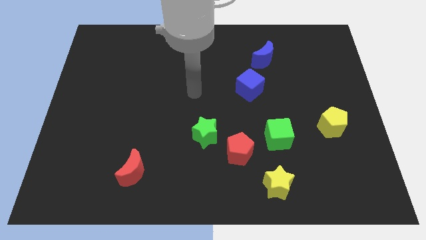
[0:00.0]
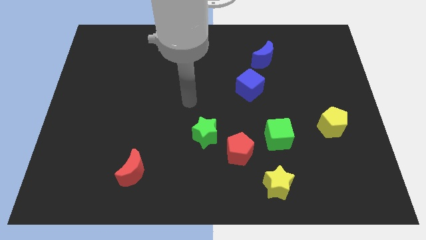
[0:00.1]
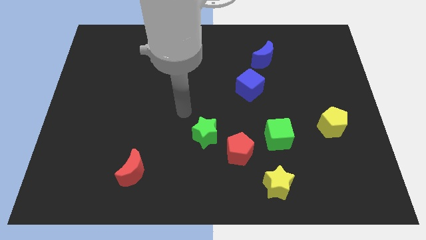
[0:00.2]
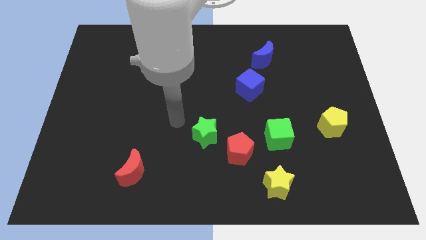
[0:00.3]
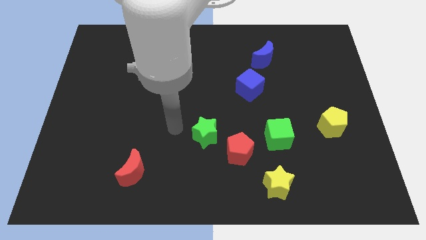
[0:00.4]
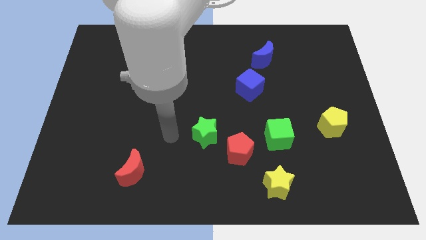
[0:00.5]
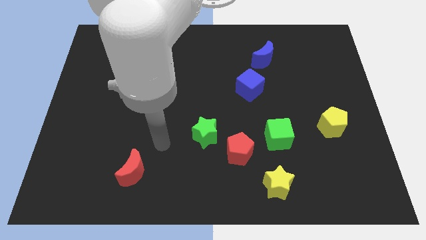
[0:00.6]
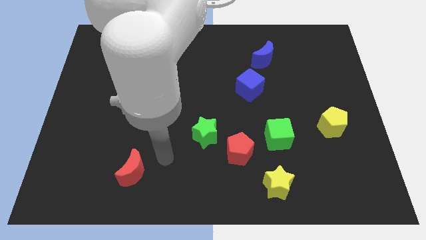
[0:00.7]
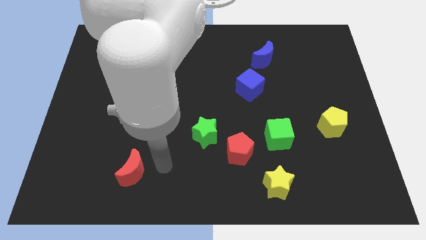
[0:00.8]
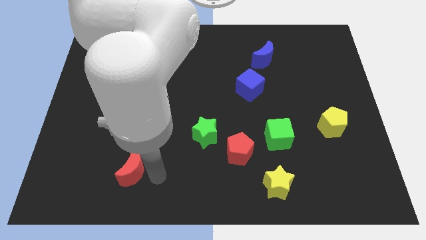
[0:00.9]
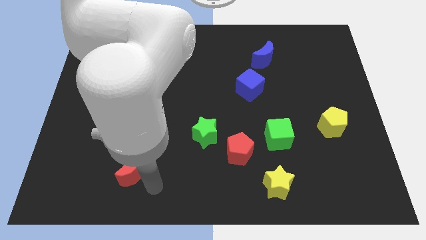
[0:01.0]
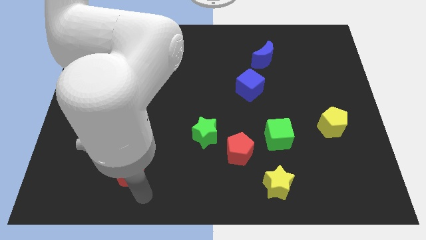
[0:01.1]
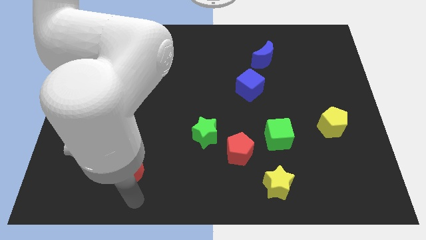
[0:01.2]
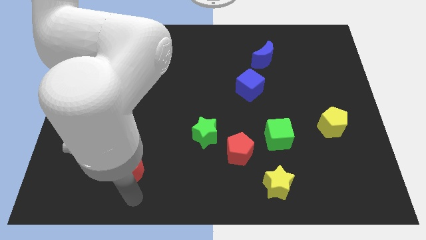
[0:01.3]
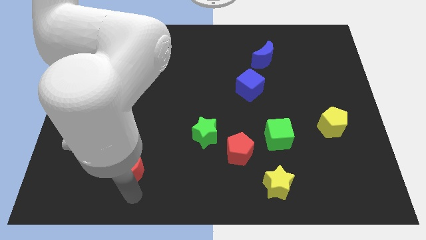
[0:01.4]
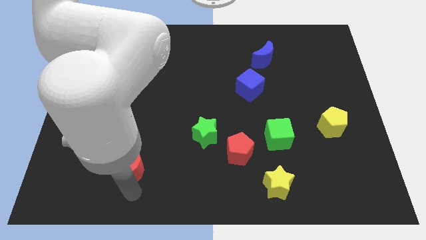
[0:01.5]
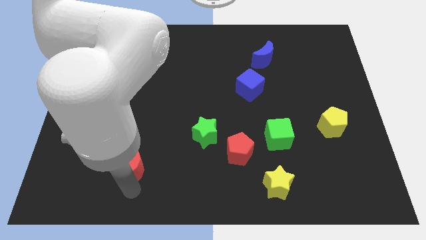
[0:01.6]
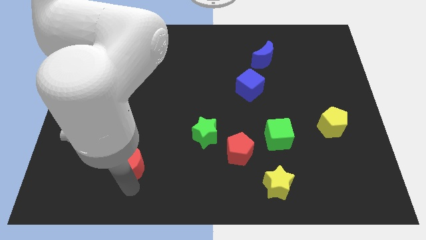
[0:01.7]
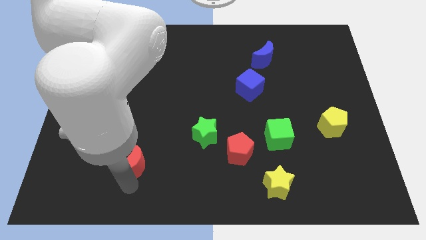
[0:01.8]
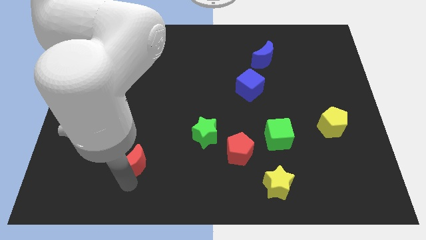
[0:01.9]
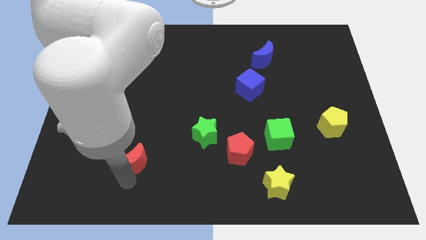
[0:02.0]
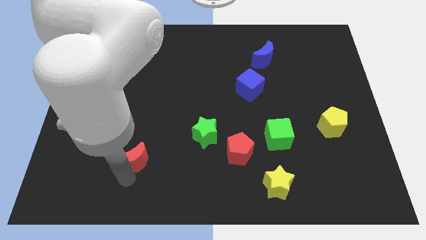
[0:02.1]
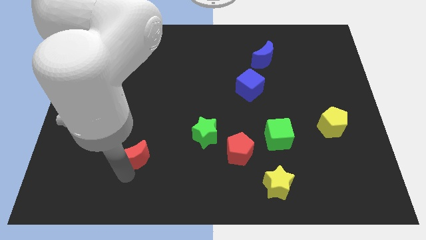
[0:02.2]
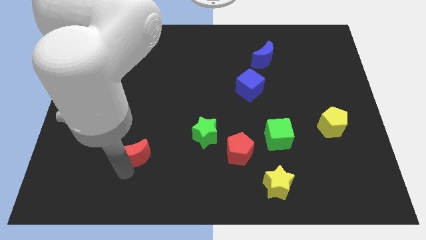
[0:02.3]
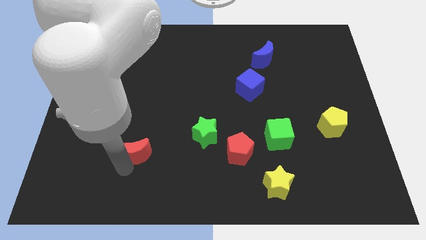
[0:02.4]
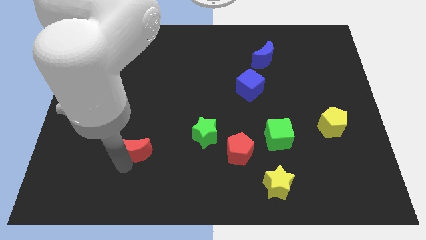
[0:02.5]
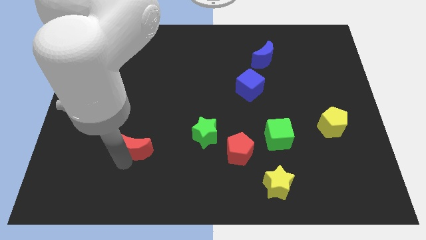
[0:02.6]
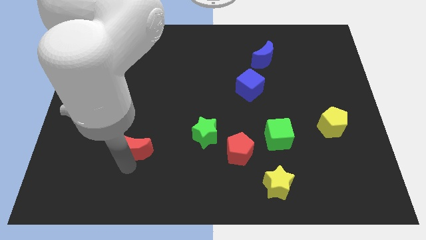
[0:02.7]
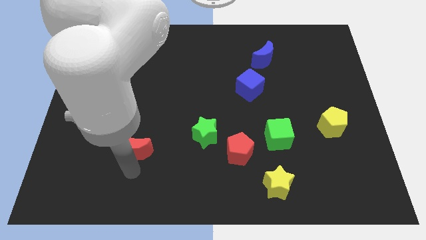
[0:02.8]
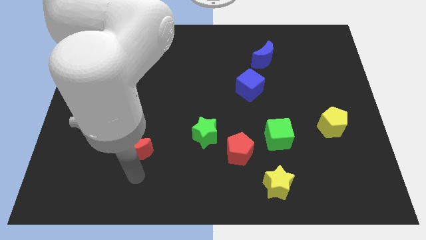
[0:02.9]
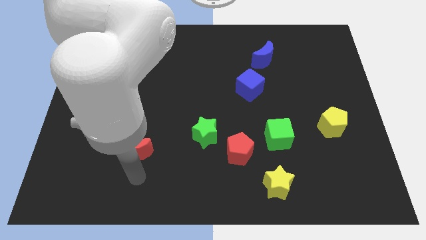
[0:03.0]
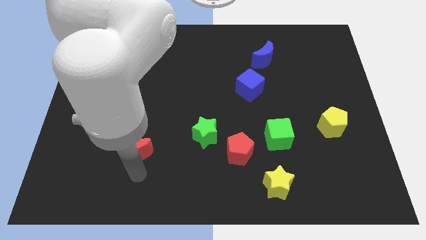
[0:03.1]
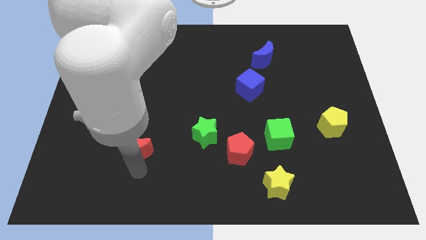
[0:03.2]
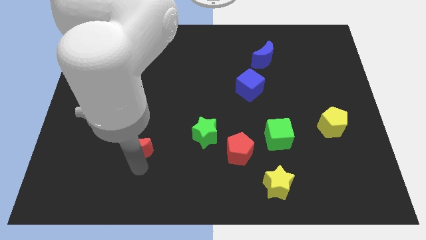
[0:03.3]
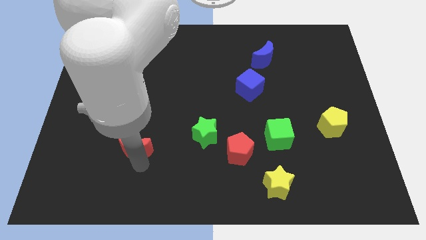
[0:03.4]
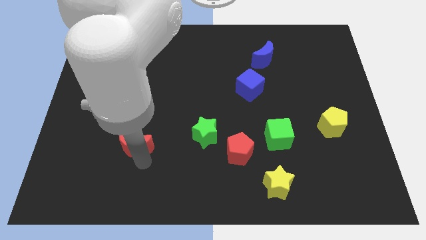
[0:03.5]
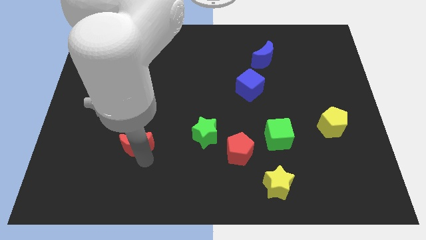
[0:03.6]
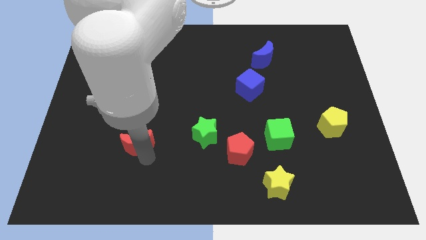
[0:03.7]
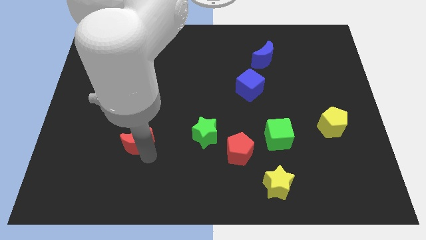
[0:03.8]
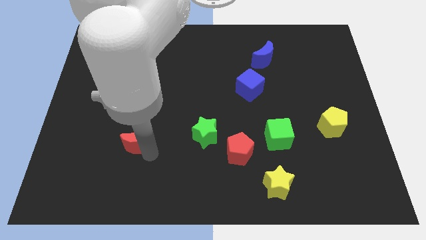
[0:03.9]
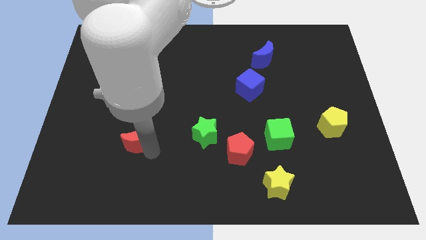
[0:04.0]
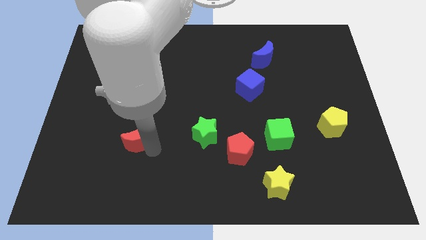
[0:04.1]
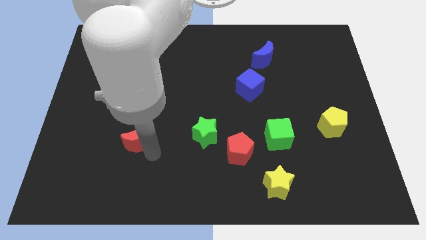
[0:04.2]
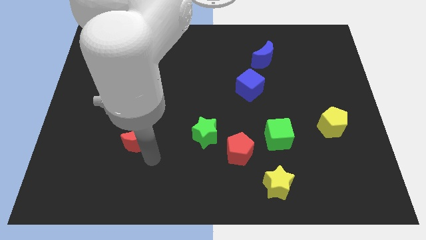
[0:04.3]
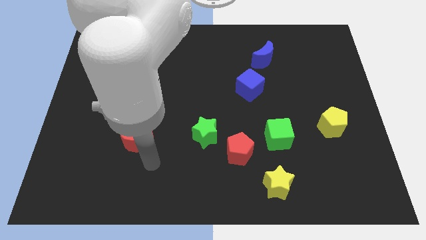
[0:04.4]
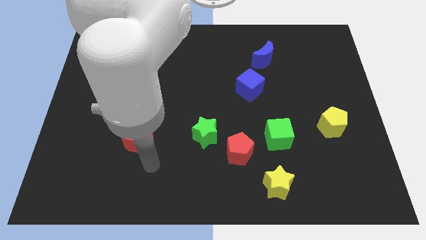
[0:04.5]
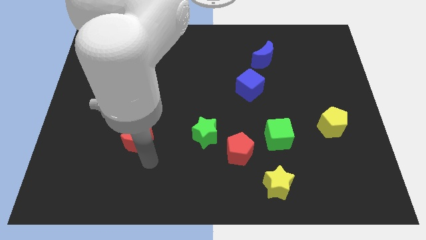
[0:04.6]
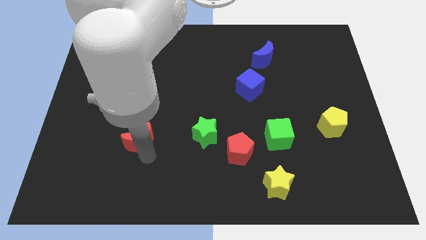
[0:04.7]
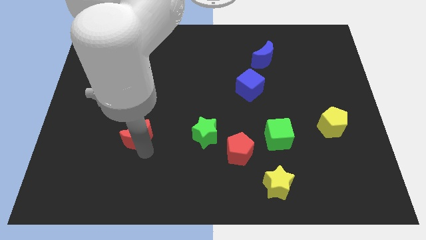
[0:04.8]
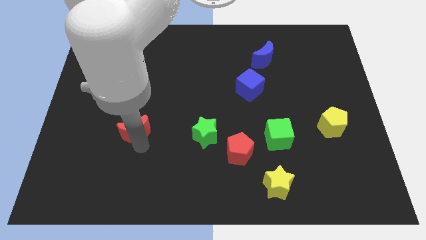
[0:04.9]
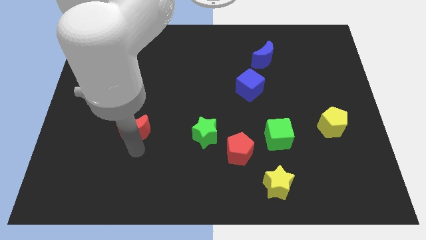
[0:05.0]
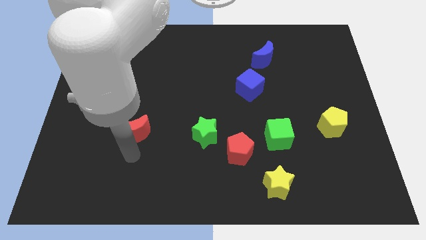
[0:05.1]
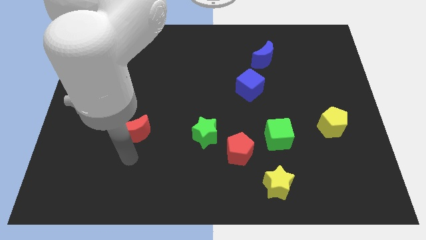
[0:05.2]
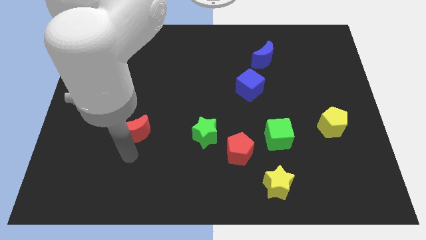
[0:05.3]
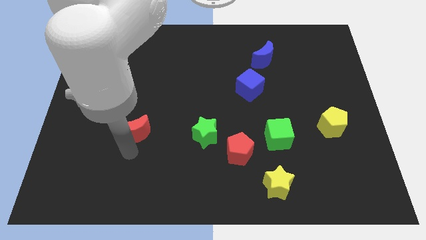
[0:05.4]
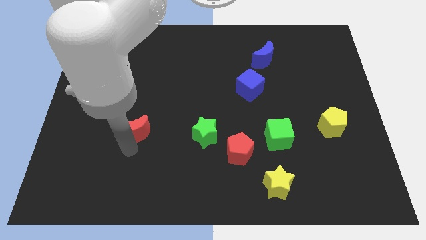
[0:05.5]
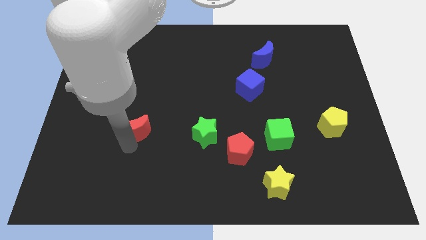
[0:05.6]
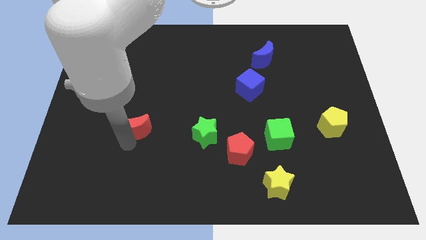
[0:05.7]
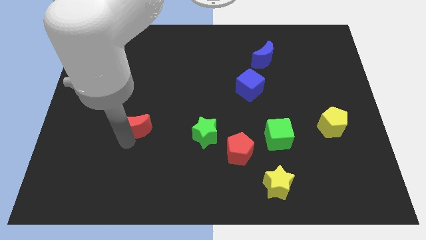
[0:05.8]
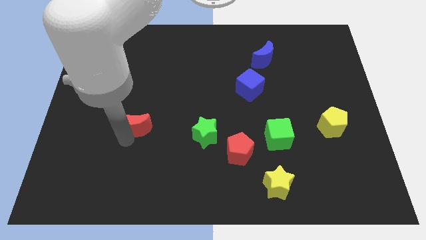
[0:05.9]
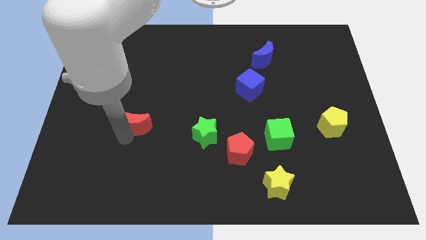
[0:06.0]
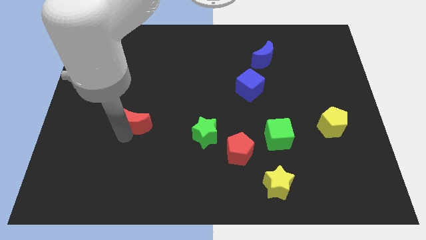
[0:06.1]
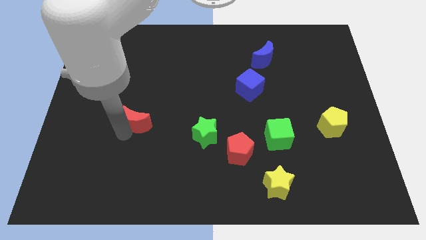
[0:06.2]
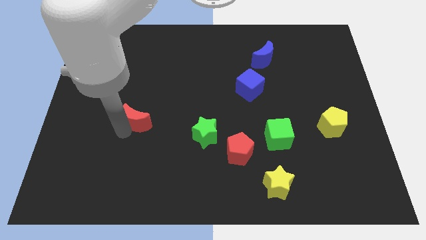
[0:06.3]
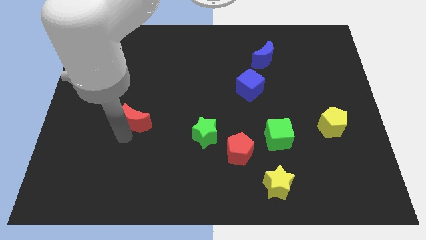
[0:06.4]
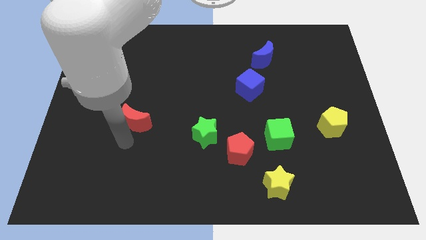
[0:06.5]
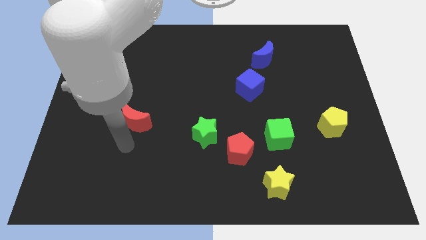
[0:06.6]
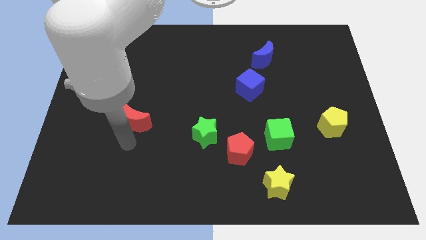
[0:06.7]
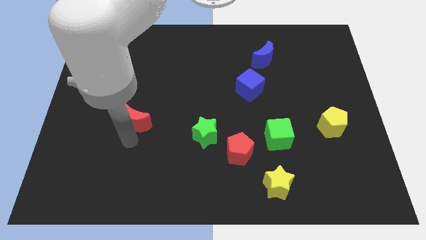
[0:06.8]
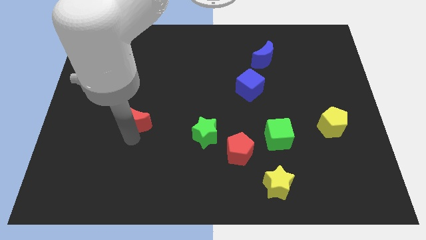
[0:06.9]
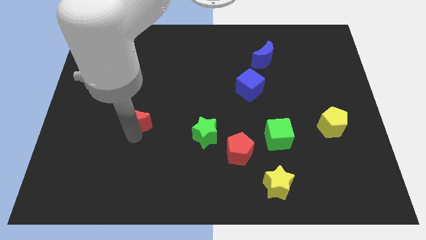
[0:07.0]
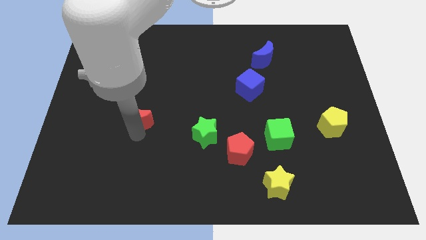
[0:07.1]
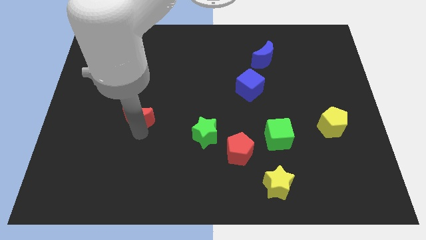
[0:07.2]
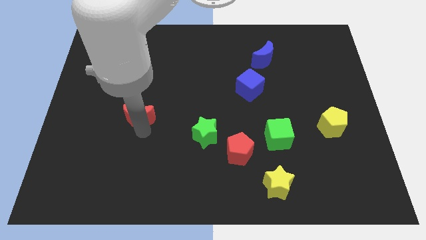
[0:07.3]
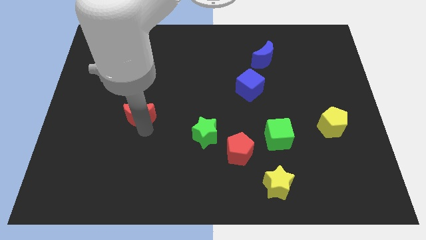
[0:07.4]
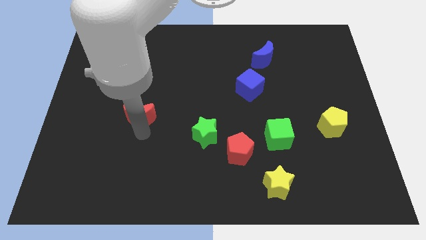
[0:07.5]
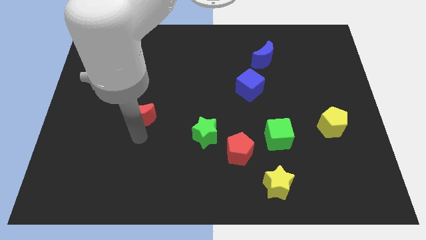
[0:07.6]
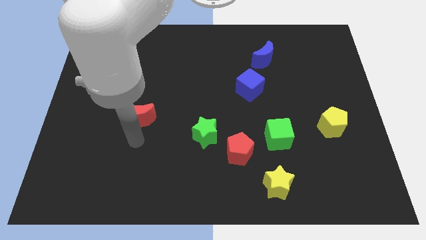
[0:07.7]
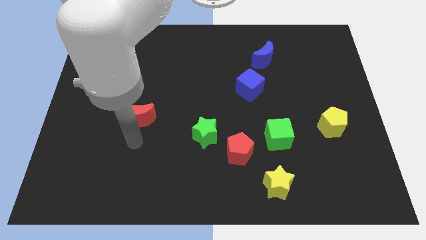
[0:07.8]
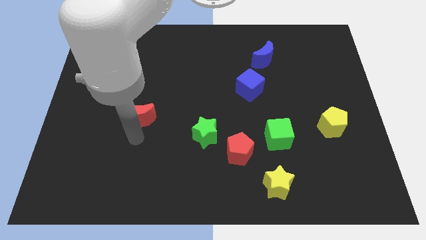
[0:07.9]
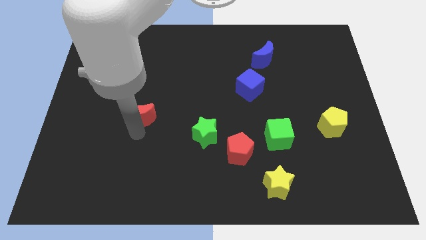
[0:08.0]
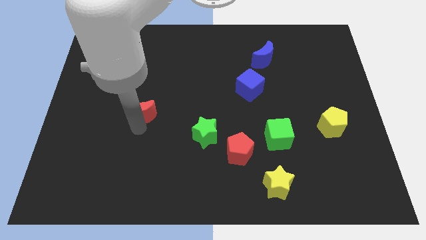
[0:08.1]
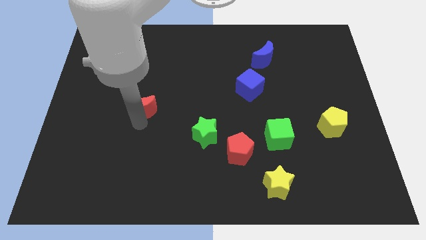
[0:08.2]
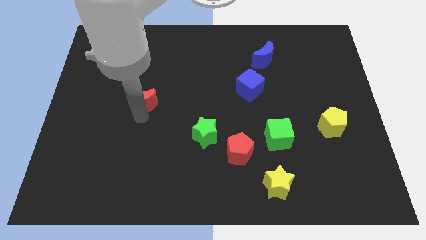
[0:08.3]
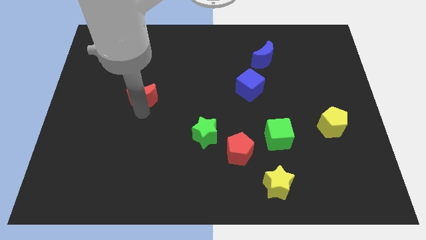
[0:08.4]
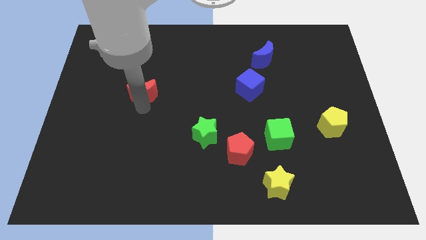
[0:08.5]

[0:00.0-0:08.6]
slide the red moon up
